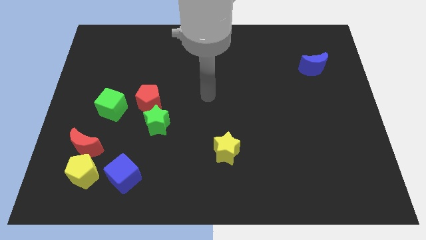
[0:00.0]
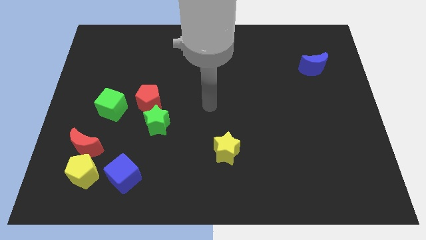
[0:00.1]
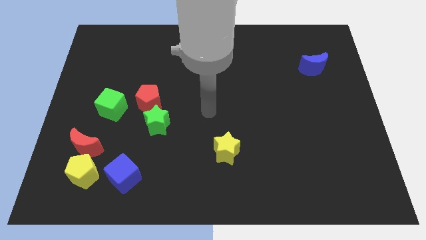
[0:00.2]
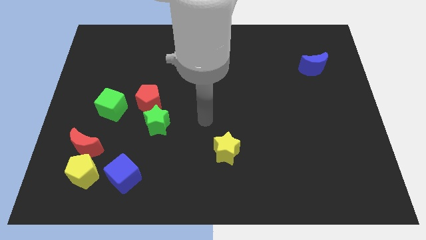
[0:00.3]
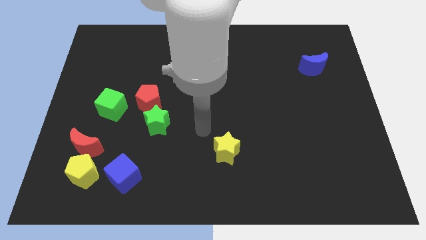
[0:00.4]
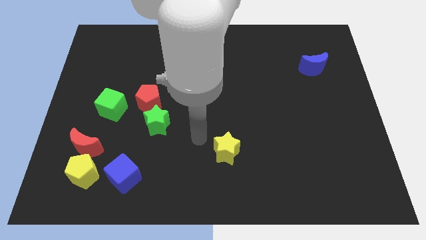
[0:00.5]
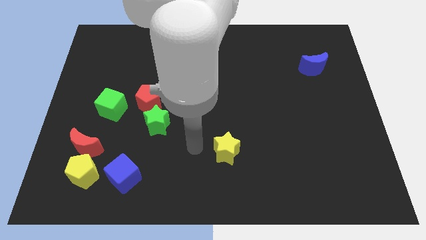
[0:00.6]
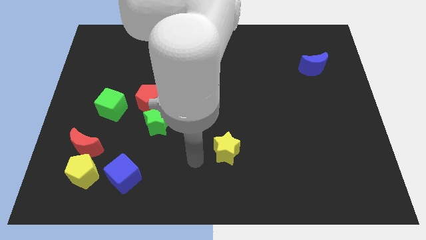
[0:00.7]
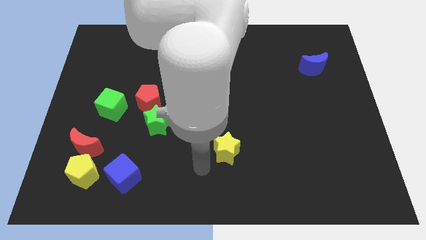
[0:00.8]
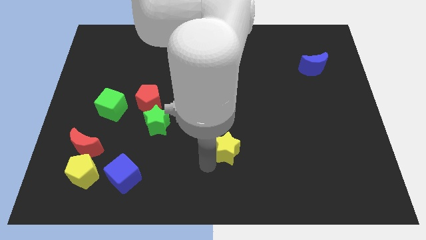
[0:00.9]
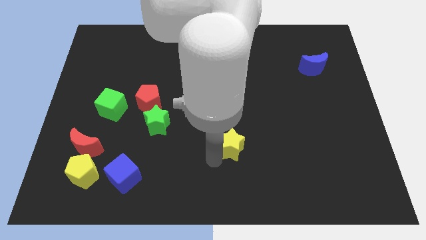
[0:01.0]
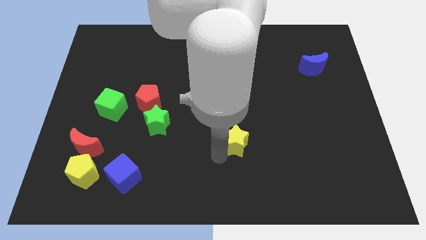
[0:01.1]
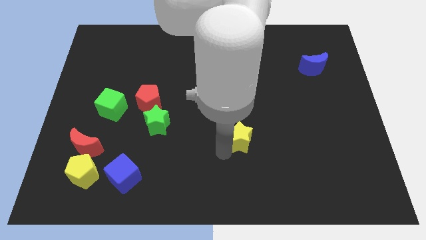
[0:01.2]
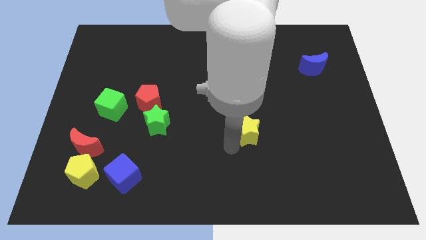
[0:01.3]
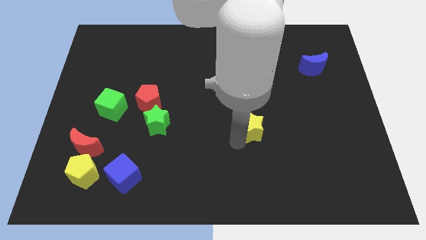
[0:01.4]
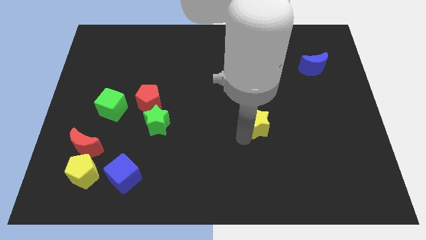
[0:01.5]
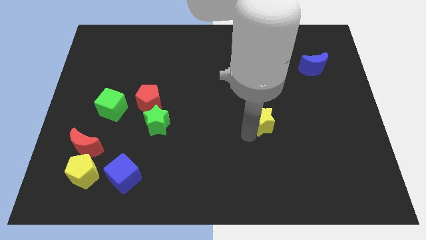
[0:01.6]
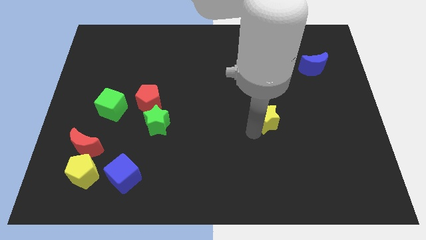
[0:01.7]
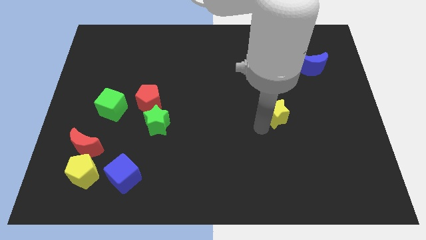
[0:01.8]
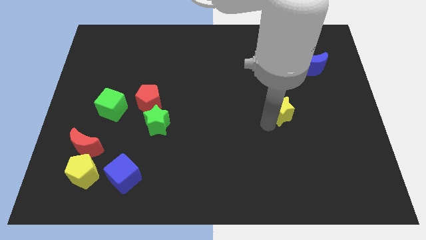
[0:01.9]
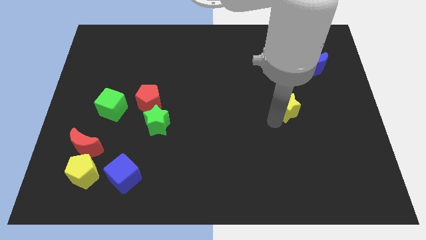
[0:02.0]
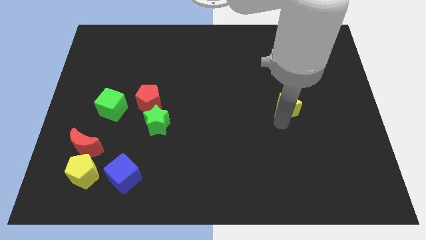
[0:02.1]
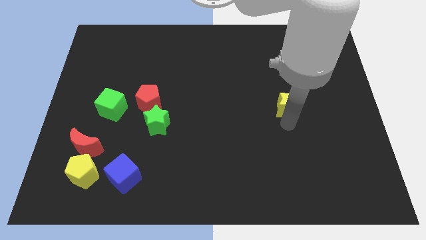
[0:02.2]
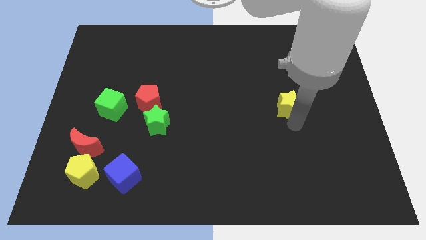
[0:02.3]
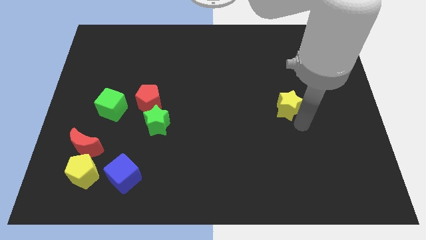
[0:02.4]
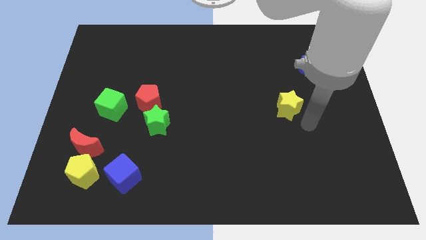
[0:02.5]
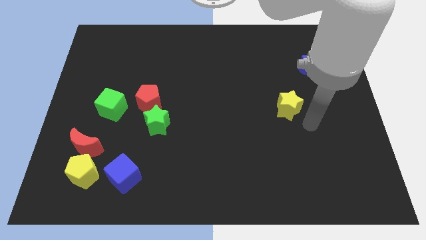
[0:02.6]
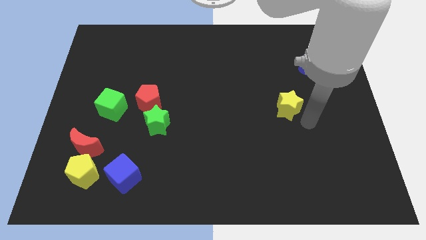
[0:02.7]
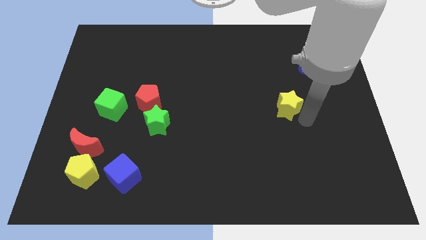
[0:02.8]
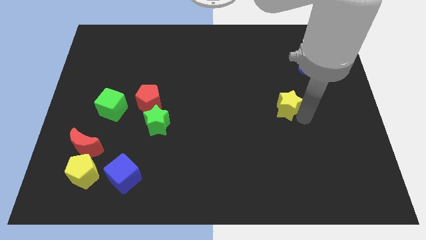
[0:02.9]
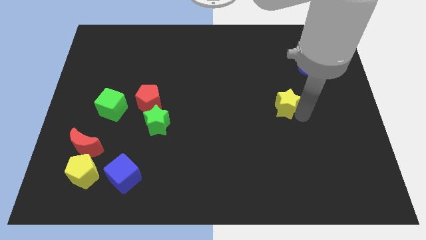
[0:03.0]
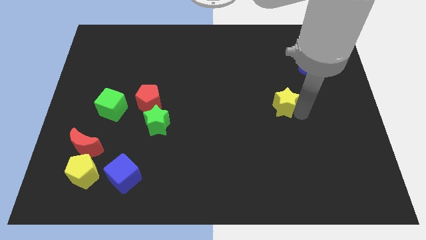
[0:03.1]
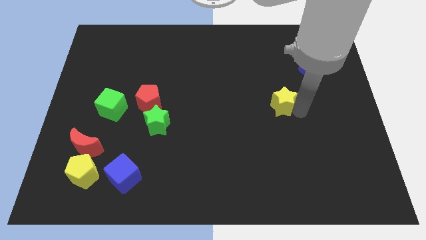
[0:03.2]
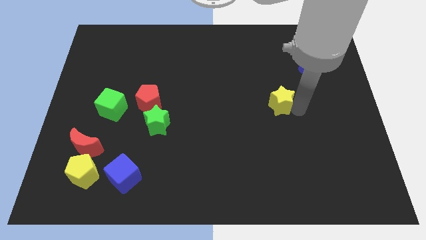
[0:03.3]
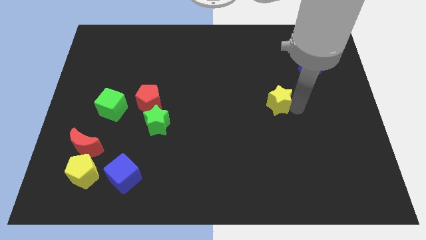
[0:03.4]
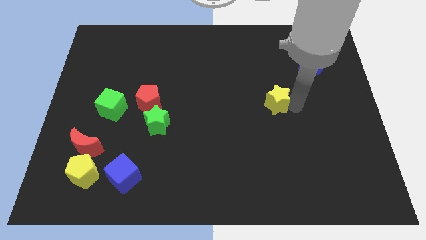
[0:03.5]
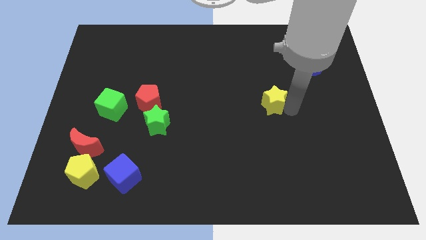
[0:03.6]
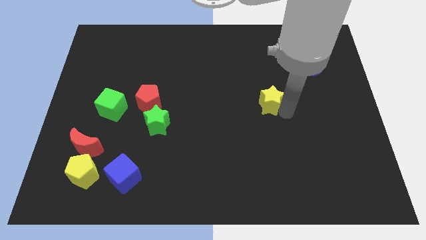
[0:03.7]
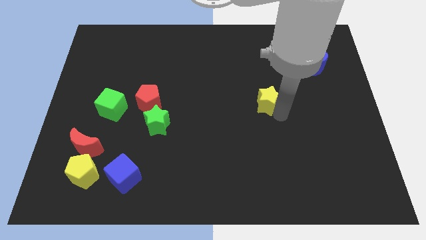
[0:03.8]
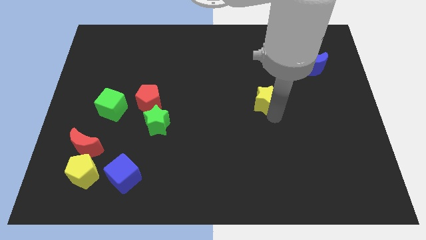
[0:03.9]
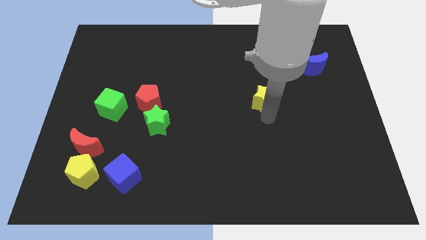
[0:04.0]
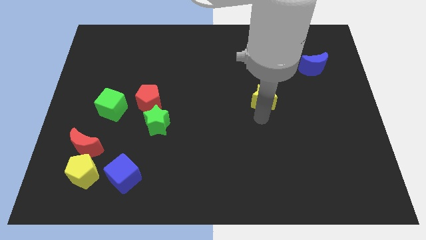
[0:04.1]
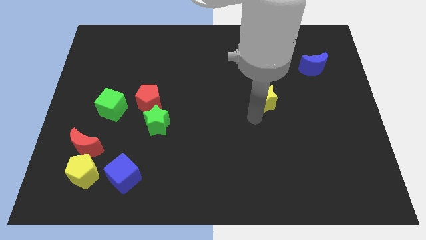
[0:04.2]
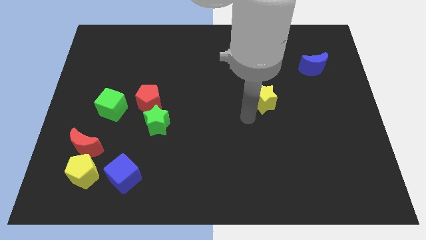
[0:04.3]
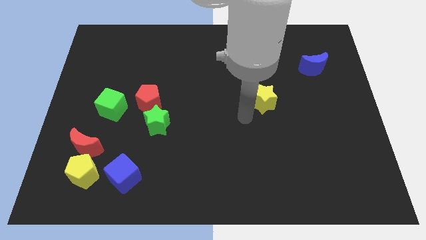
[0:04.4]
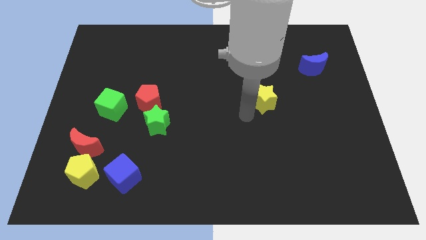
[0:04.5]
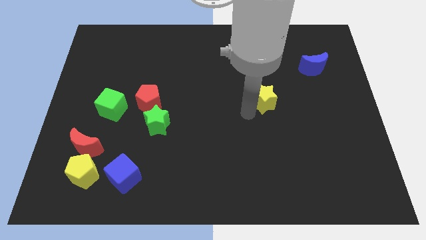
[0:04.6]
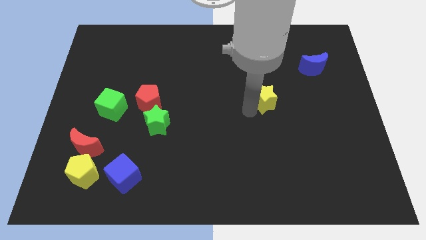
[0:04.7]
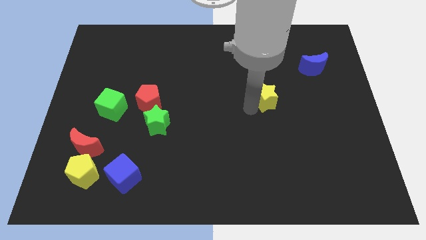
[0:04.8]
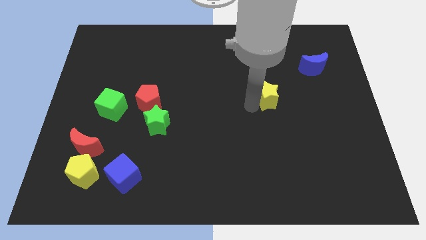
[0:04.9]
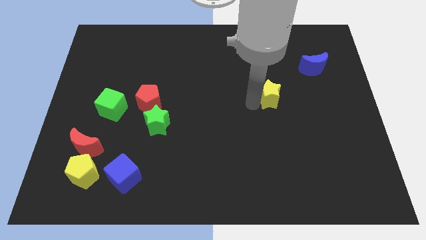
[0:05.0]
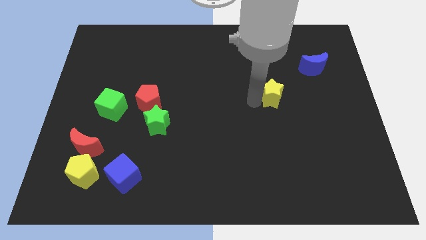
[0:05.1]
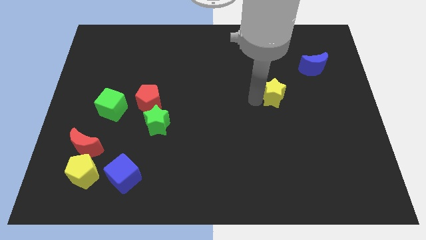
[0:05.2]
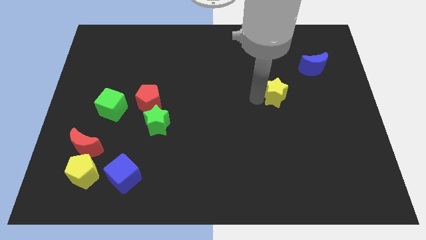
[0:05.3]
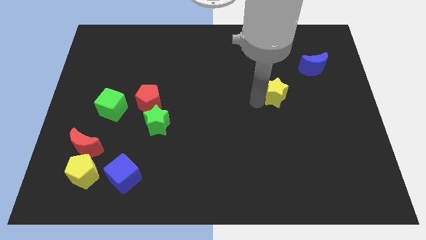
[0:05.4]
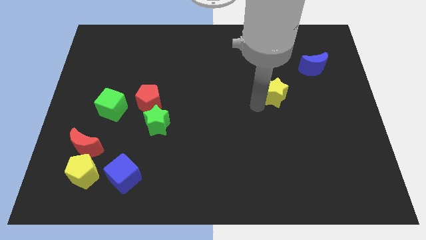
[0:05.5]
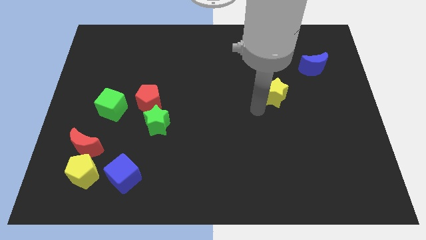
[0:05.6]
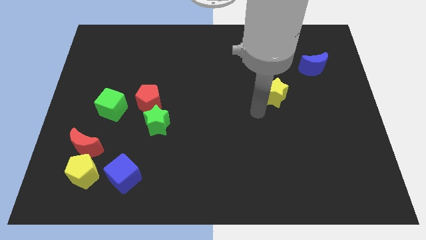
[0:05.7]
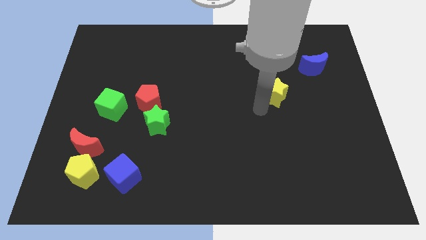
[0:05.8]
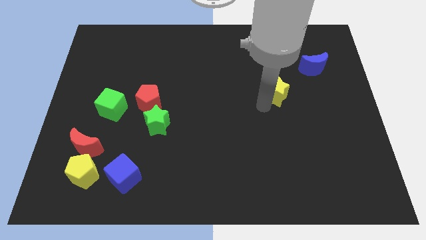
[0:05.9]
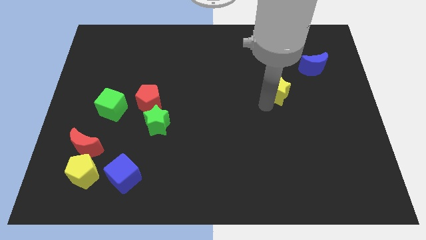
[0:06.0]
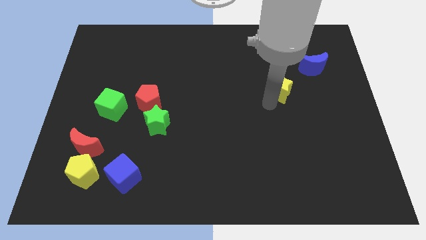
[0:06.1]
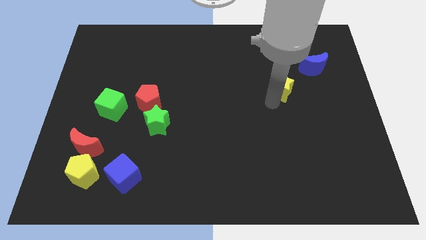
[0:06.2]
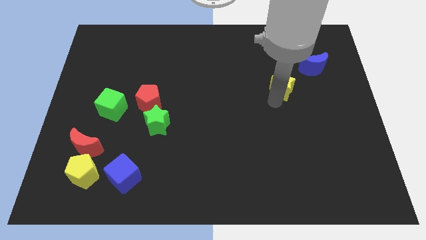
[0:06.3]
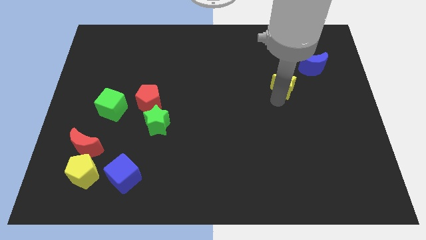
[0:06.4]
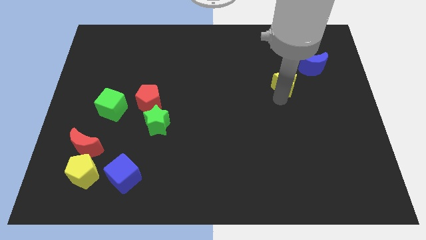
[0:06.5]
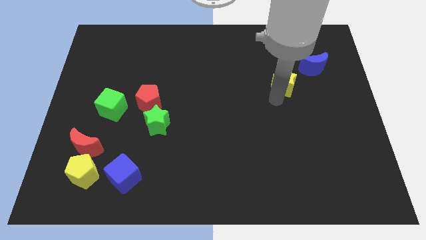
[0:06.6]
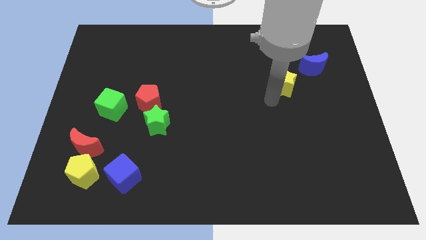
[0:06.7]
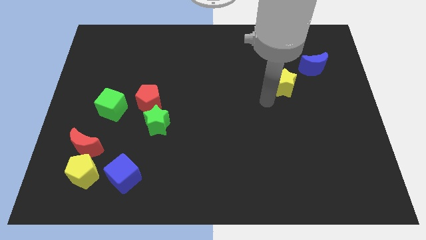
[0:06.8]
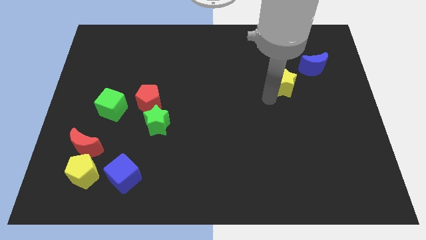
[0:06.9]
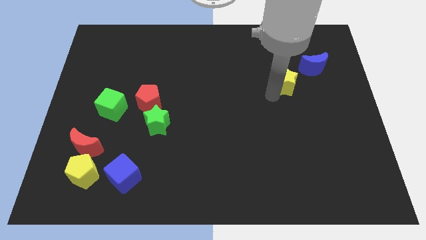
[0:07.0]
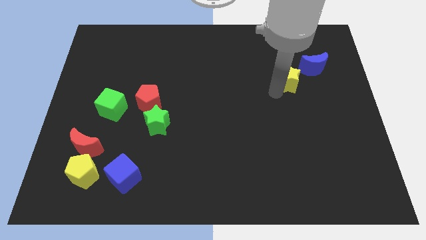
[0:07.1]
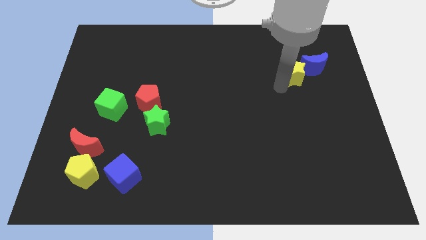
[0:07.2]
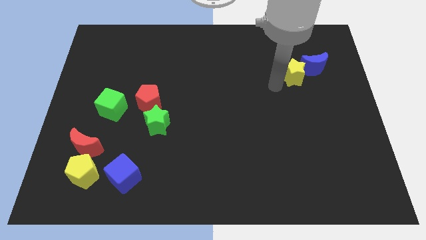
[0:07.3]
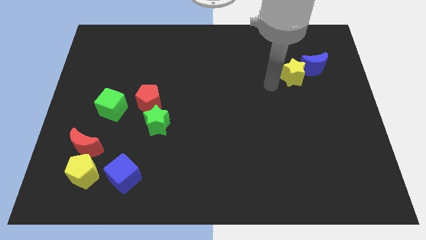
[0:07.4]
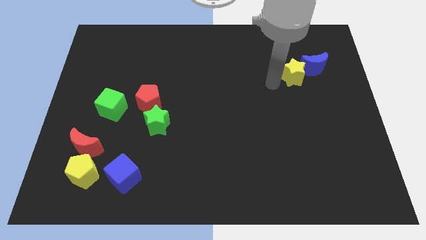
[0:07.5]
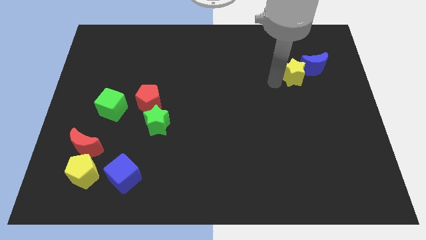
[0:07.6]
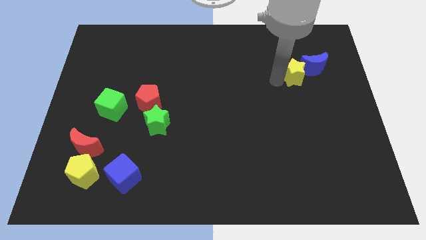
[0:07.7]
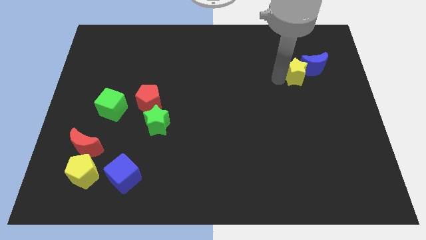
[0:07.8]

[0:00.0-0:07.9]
put the yellow star to the blue moon
